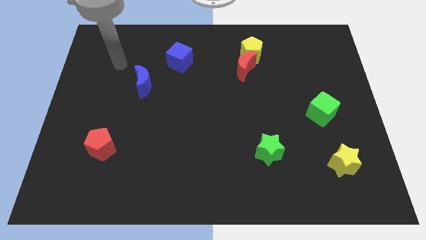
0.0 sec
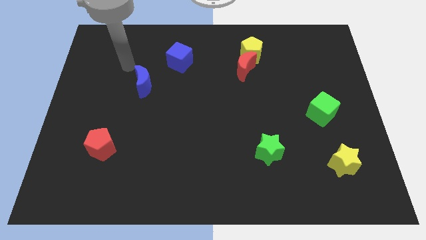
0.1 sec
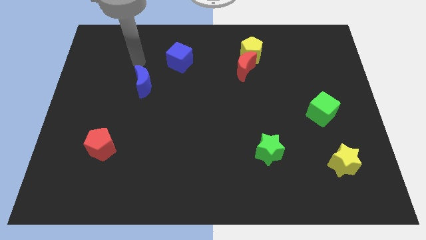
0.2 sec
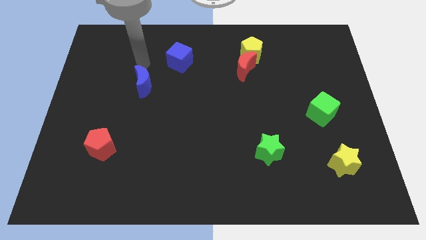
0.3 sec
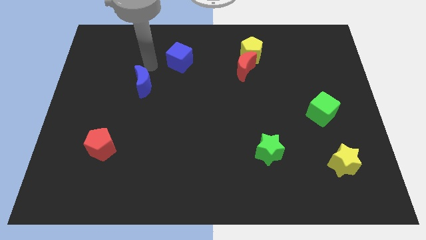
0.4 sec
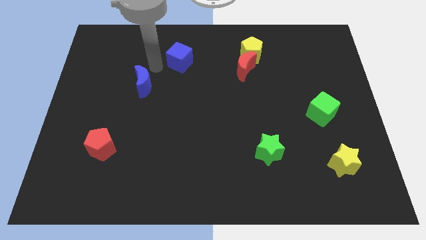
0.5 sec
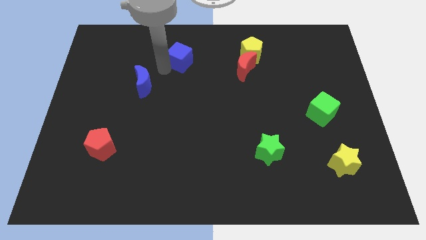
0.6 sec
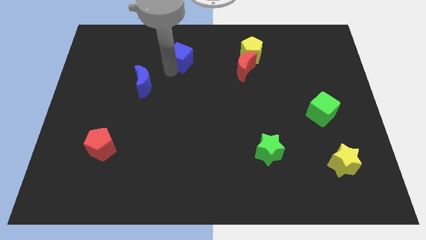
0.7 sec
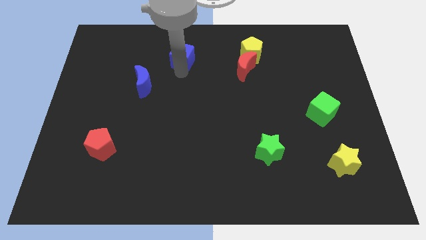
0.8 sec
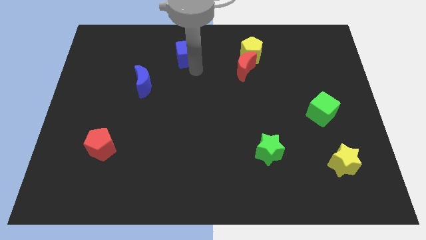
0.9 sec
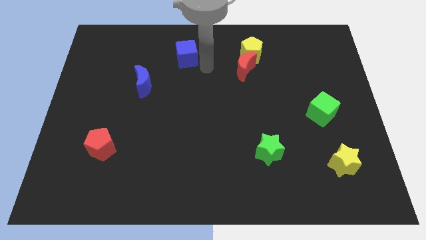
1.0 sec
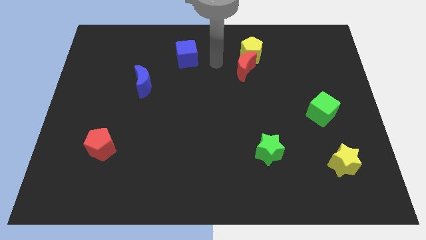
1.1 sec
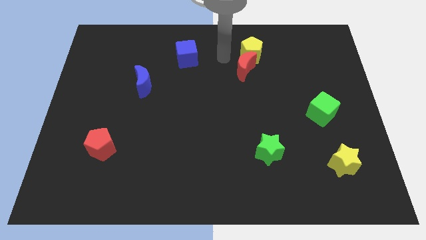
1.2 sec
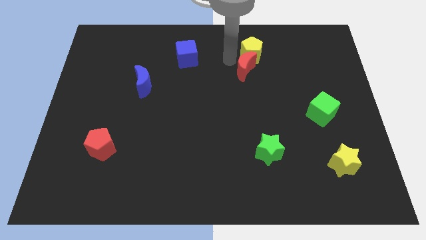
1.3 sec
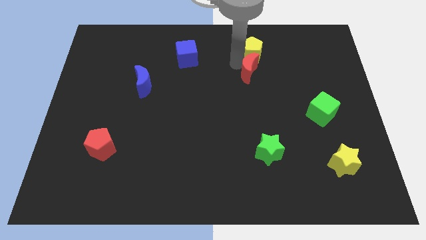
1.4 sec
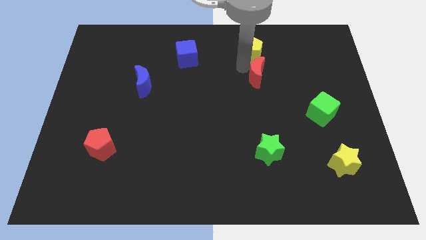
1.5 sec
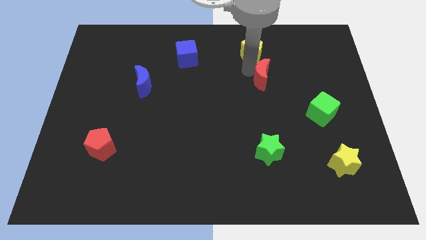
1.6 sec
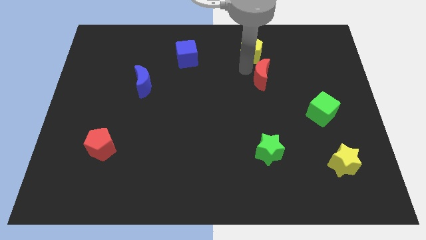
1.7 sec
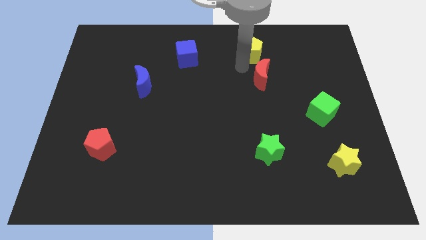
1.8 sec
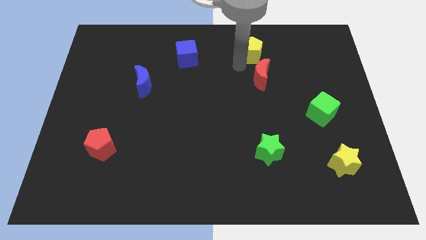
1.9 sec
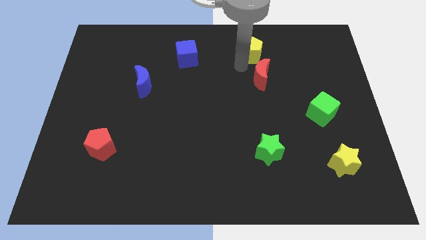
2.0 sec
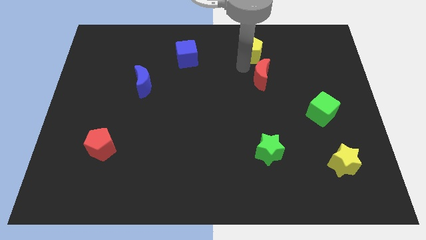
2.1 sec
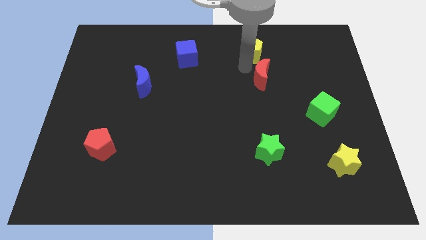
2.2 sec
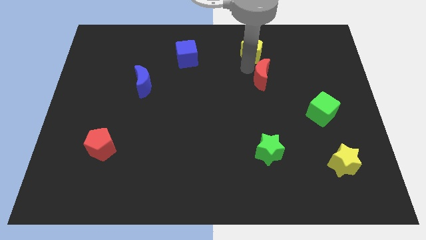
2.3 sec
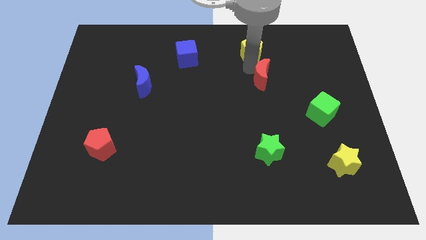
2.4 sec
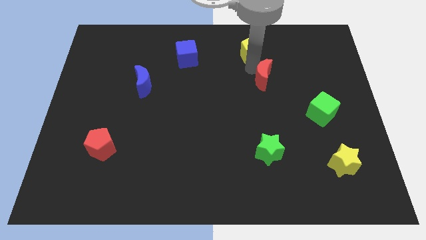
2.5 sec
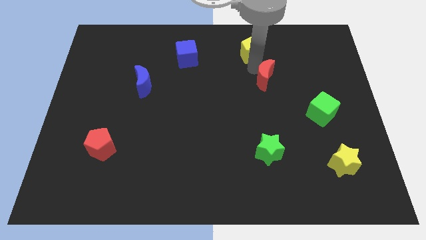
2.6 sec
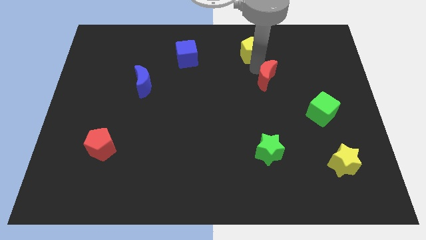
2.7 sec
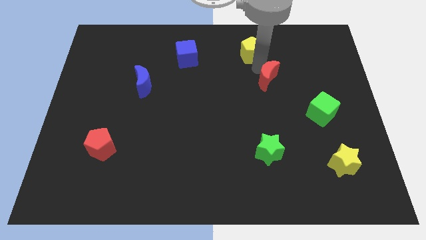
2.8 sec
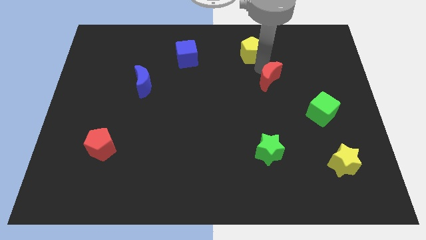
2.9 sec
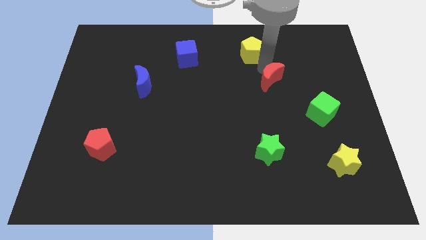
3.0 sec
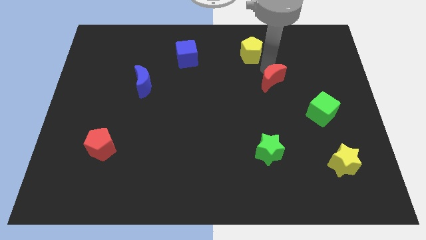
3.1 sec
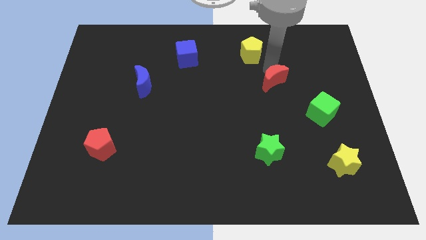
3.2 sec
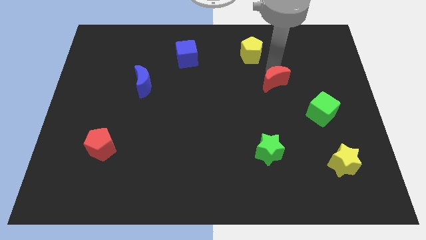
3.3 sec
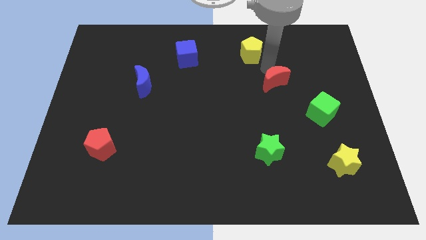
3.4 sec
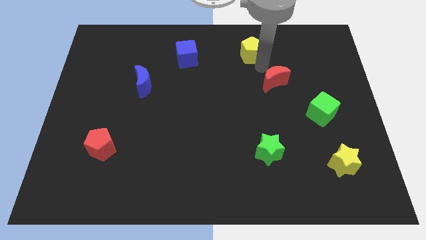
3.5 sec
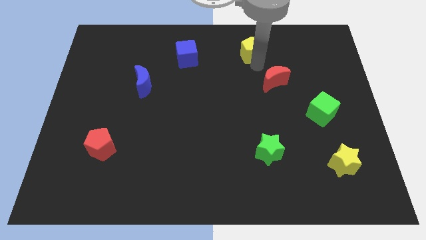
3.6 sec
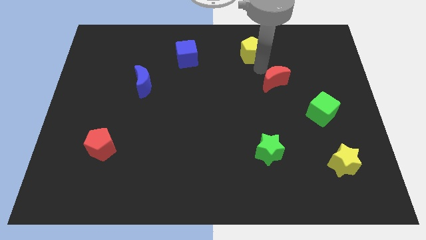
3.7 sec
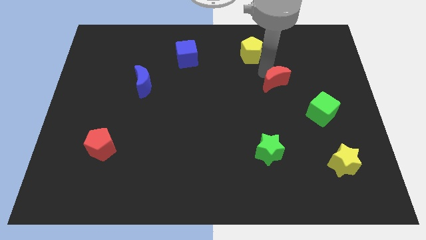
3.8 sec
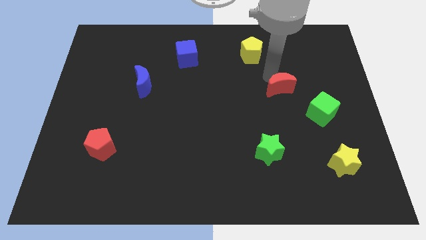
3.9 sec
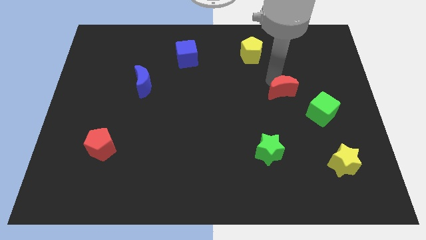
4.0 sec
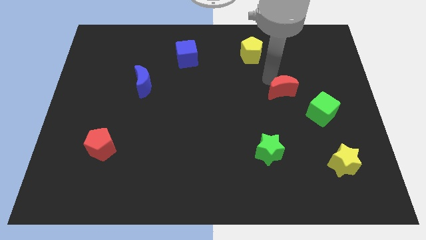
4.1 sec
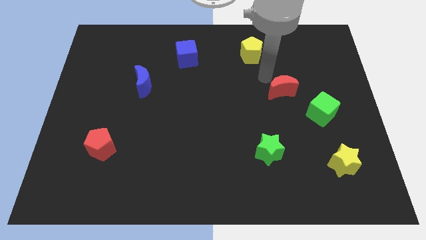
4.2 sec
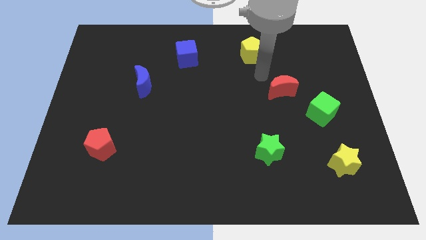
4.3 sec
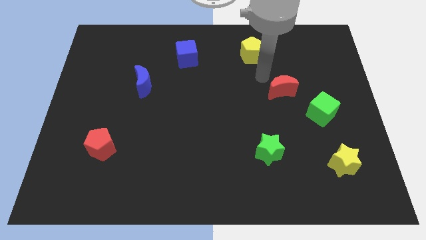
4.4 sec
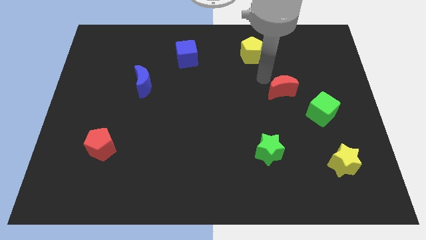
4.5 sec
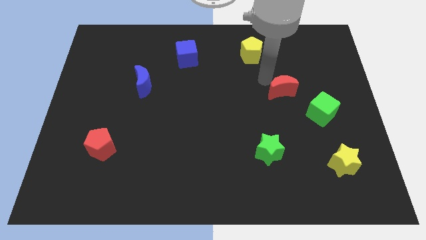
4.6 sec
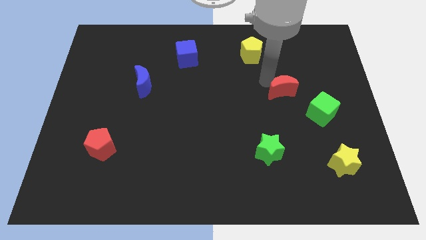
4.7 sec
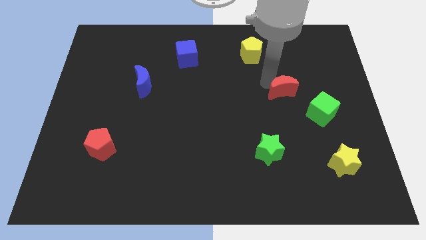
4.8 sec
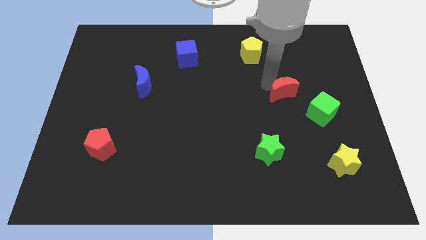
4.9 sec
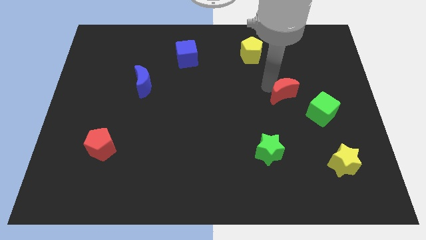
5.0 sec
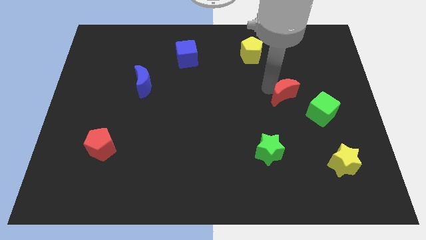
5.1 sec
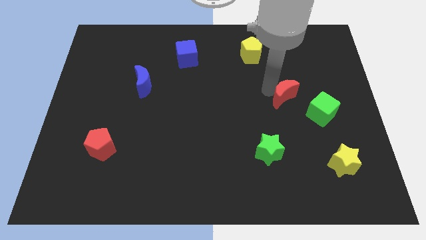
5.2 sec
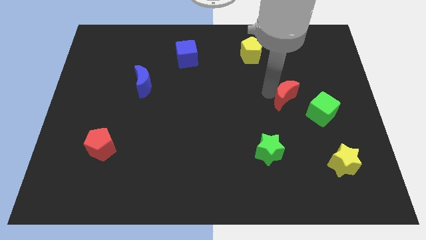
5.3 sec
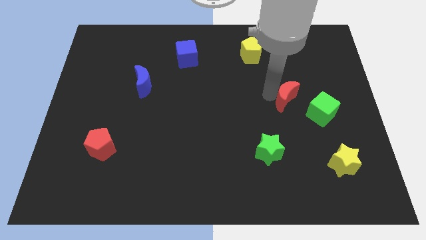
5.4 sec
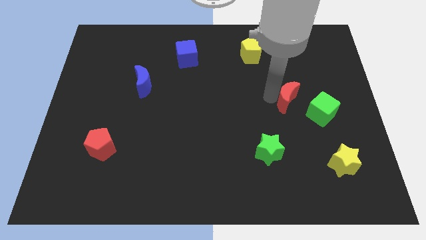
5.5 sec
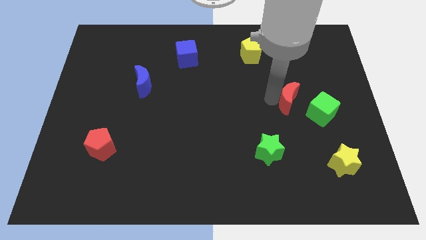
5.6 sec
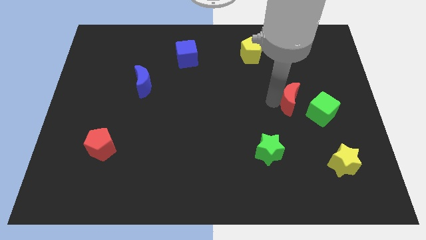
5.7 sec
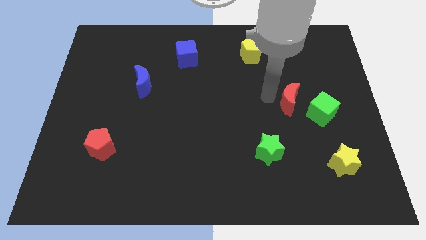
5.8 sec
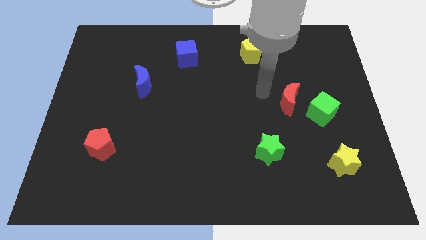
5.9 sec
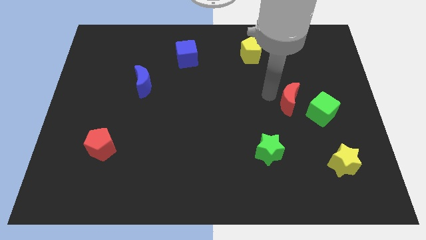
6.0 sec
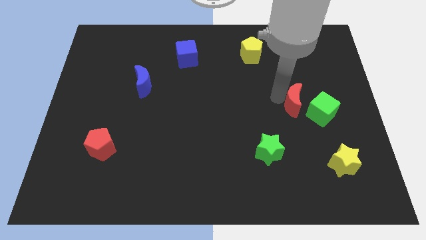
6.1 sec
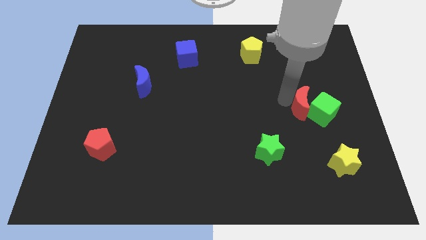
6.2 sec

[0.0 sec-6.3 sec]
put the red moon next to the green cube

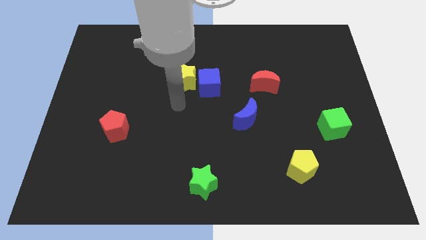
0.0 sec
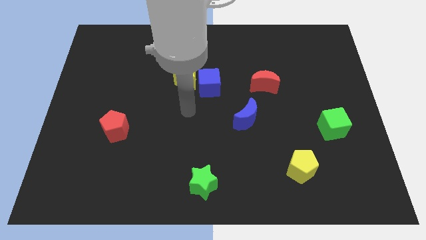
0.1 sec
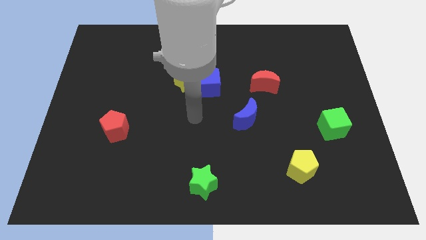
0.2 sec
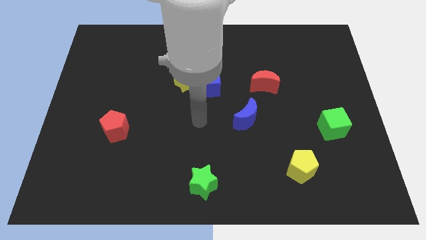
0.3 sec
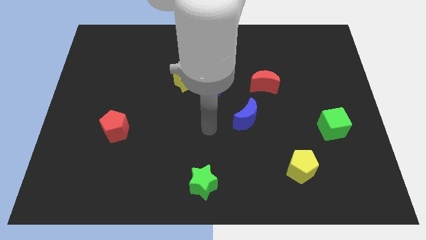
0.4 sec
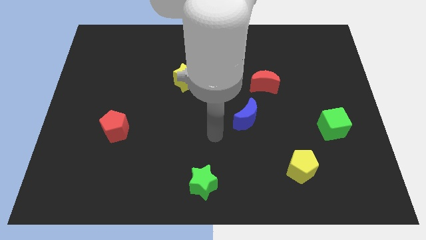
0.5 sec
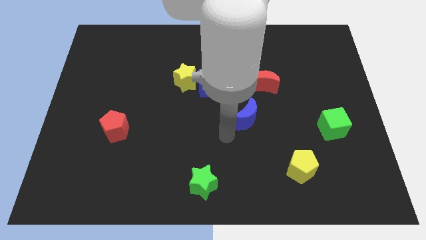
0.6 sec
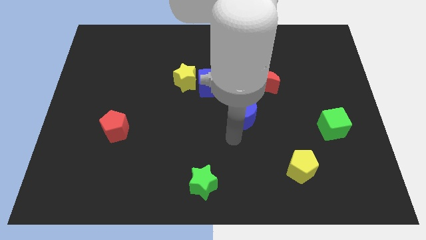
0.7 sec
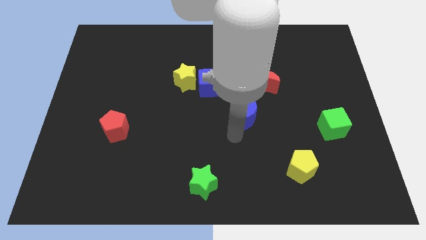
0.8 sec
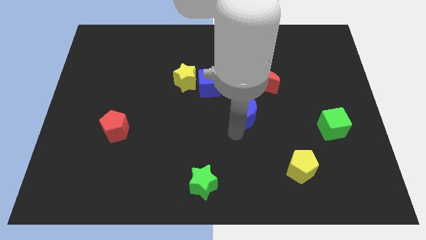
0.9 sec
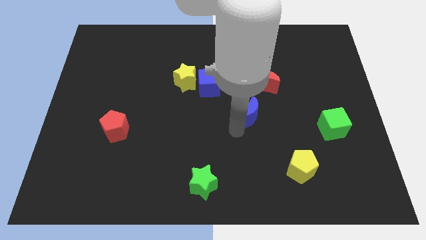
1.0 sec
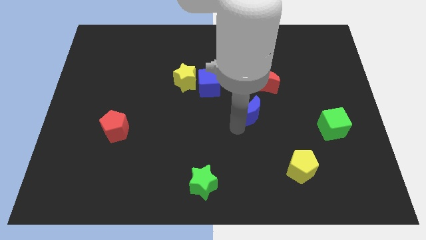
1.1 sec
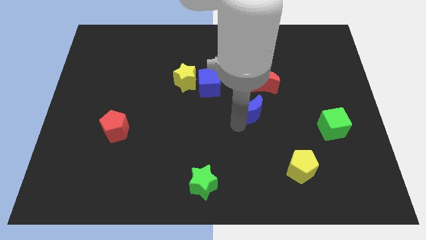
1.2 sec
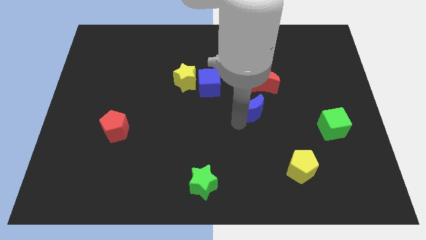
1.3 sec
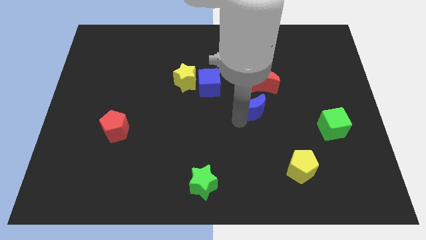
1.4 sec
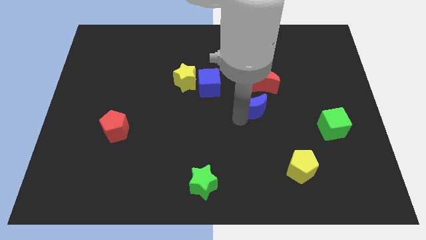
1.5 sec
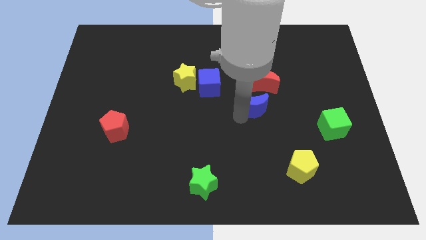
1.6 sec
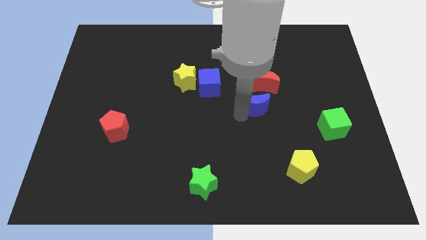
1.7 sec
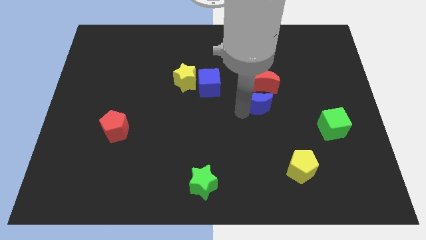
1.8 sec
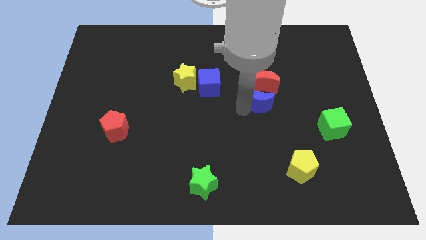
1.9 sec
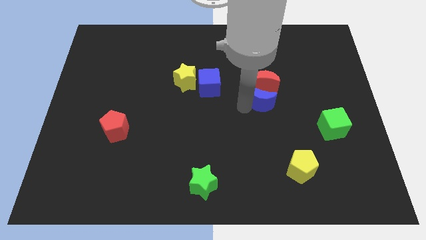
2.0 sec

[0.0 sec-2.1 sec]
slide the blue moon close to the red moon
